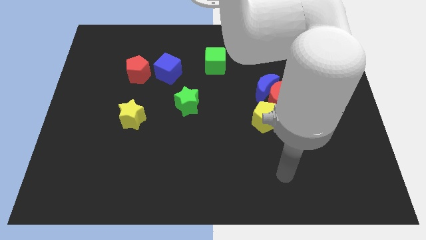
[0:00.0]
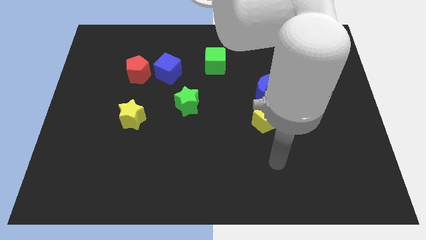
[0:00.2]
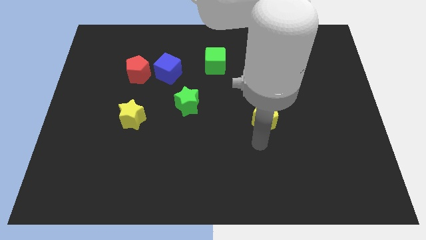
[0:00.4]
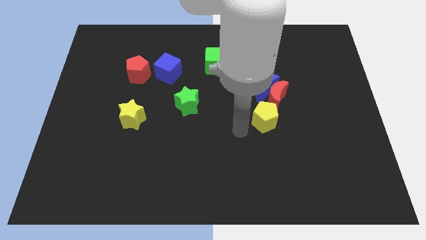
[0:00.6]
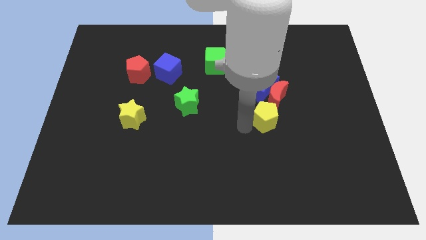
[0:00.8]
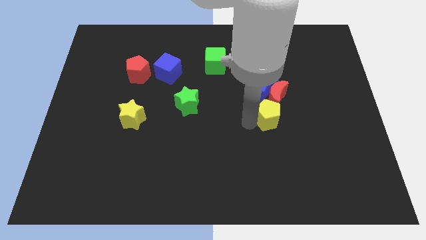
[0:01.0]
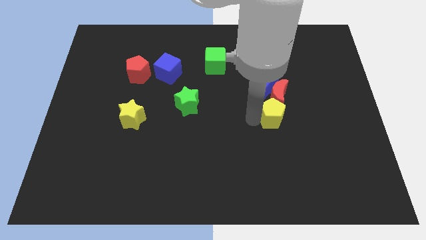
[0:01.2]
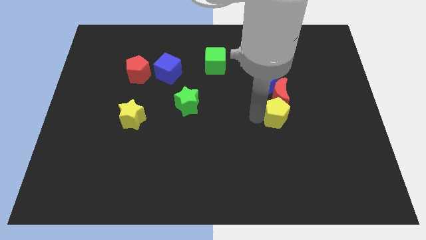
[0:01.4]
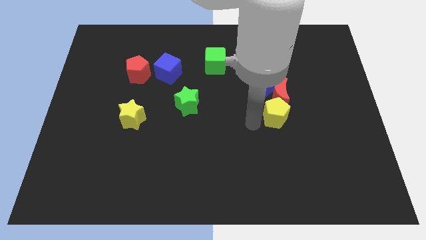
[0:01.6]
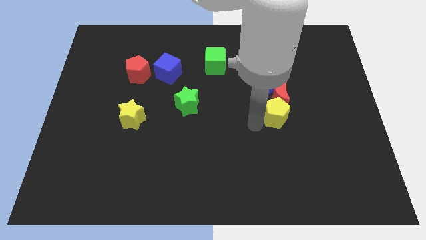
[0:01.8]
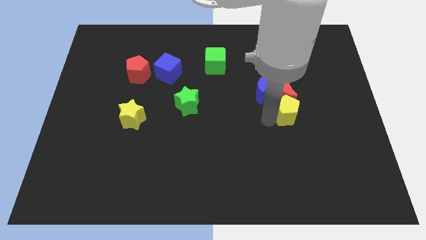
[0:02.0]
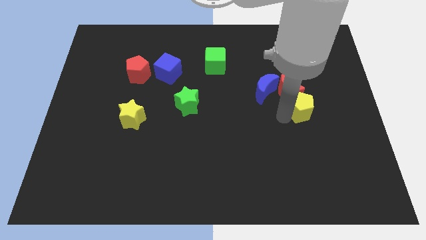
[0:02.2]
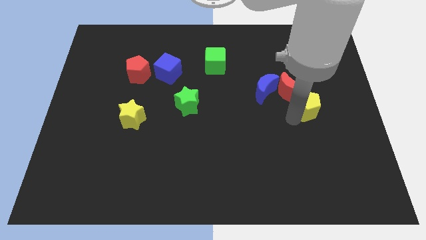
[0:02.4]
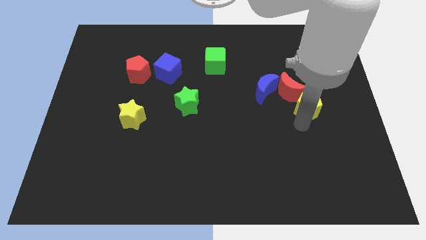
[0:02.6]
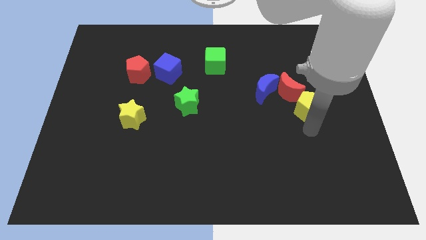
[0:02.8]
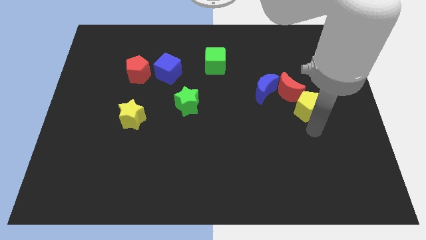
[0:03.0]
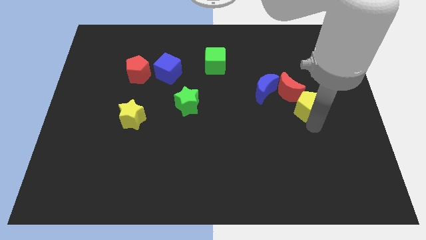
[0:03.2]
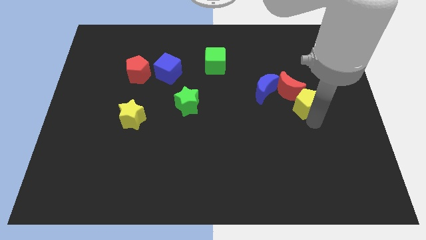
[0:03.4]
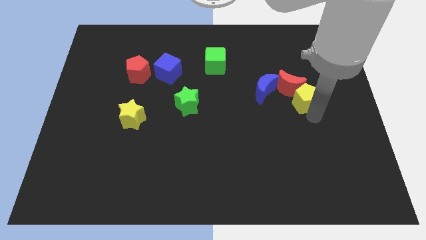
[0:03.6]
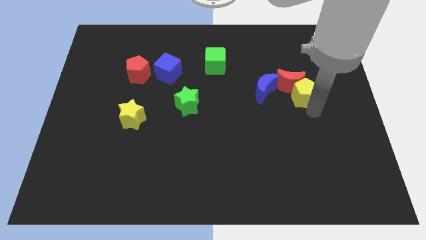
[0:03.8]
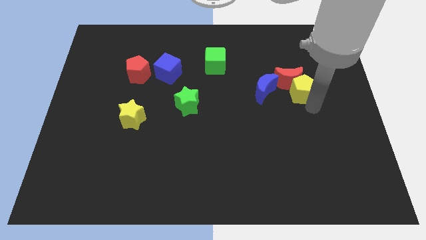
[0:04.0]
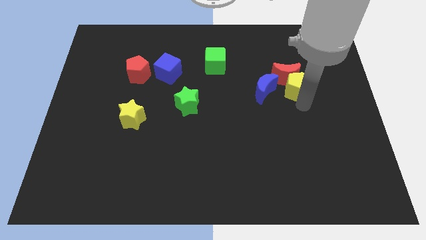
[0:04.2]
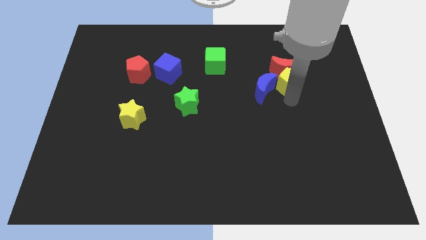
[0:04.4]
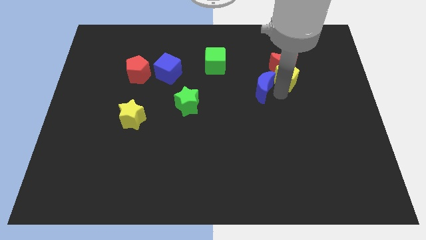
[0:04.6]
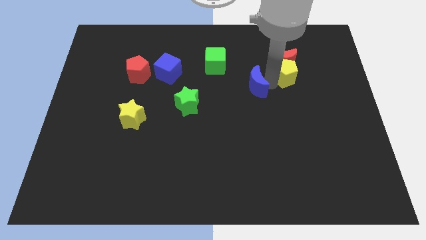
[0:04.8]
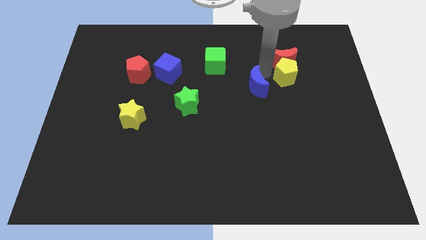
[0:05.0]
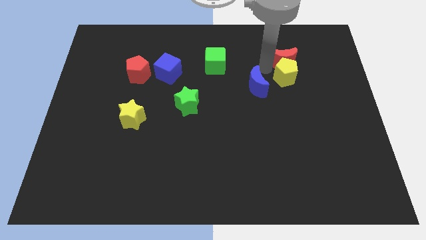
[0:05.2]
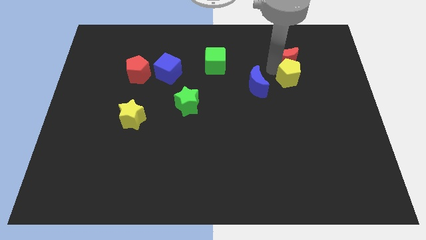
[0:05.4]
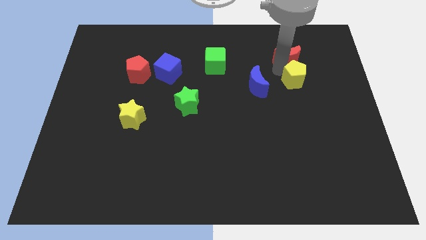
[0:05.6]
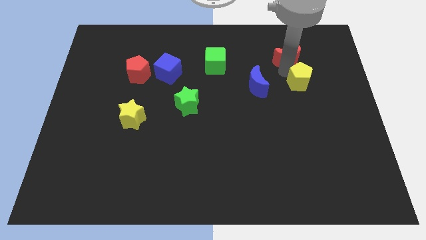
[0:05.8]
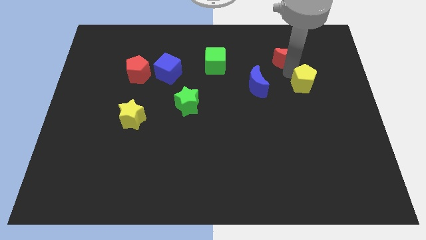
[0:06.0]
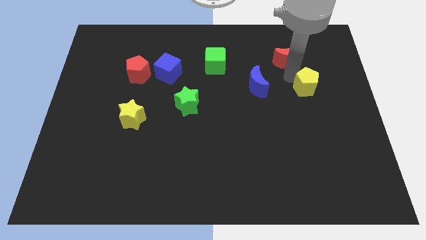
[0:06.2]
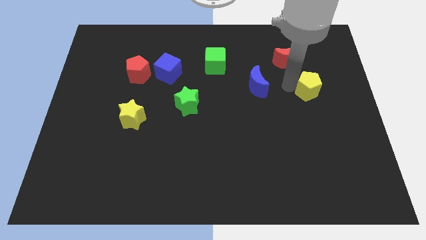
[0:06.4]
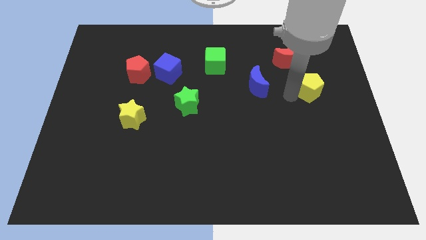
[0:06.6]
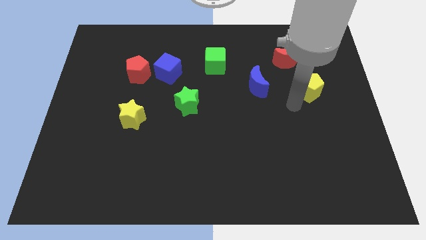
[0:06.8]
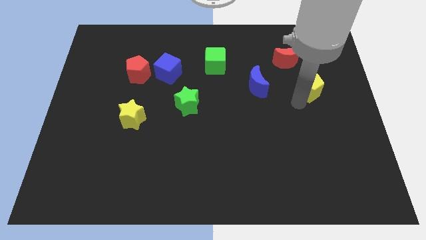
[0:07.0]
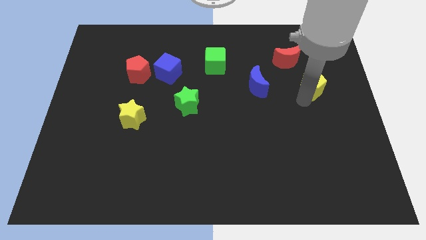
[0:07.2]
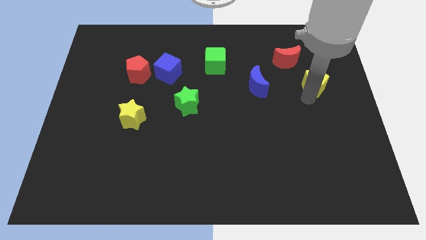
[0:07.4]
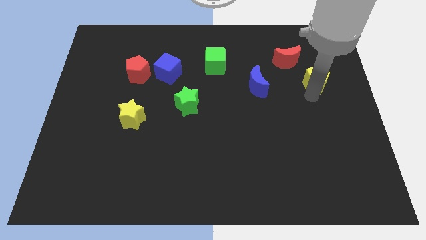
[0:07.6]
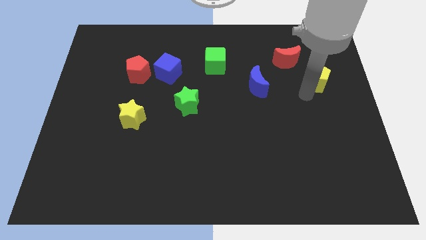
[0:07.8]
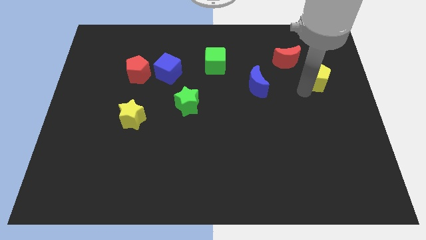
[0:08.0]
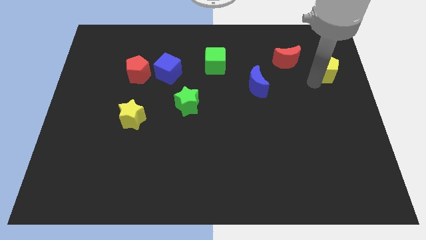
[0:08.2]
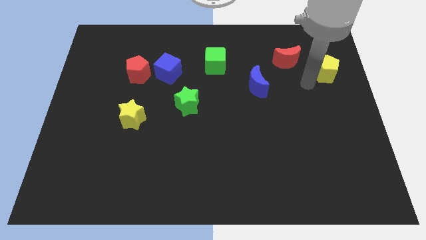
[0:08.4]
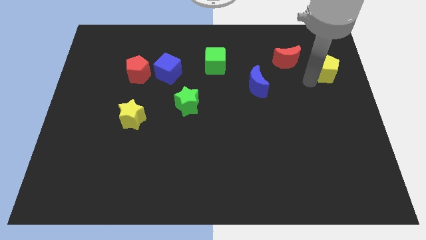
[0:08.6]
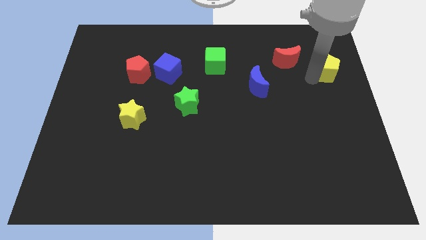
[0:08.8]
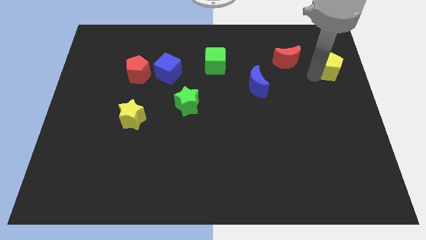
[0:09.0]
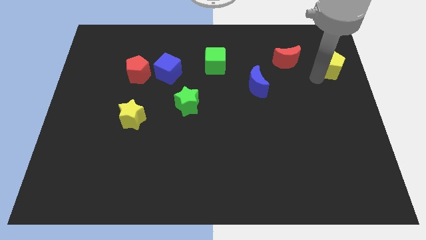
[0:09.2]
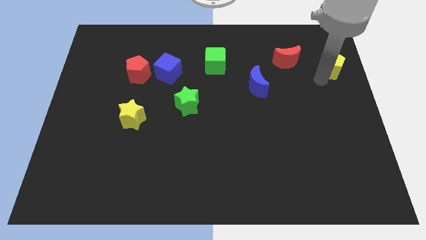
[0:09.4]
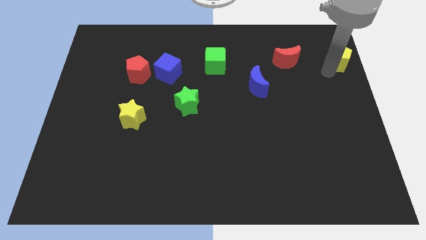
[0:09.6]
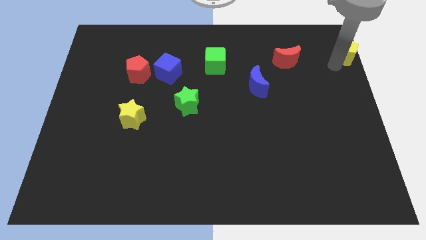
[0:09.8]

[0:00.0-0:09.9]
put the yellow pentagon to the upper right corner

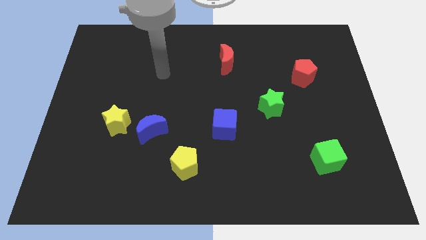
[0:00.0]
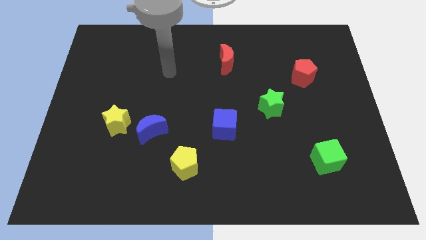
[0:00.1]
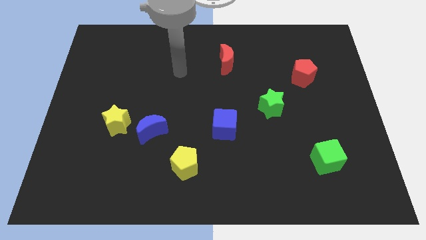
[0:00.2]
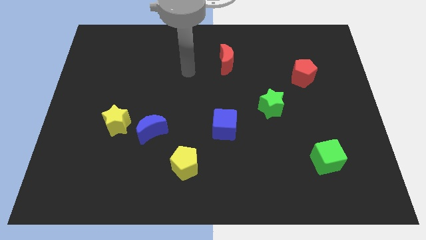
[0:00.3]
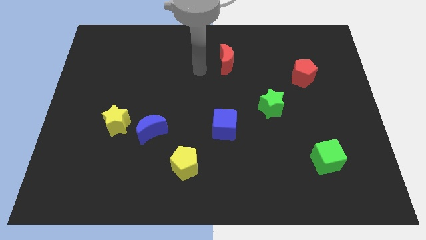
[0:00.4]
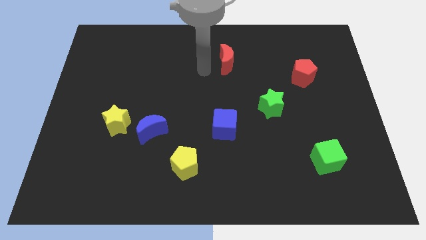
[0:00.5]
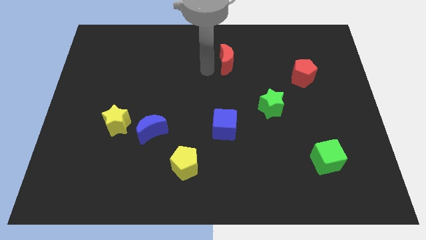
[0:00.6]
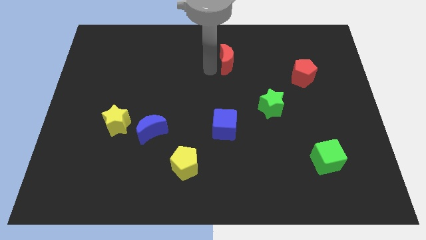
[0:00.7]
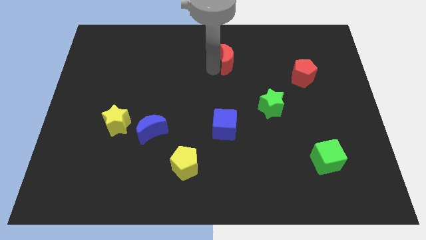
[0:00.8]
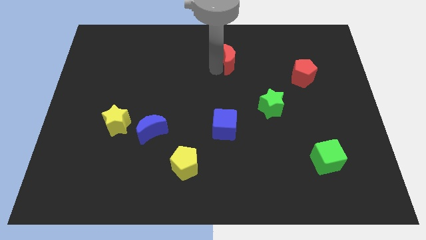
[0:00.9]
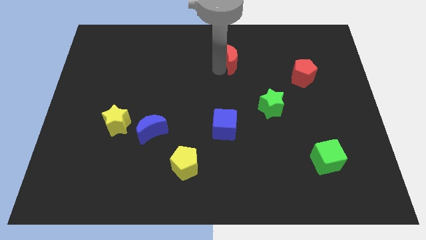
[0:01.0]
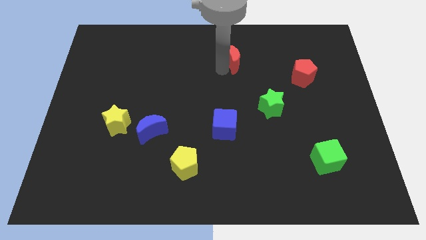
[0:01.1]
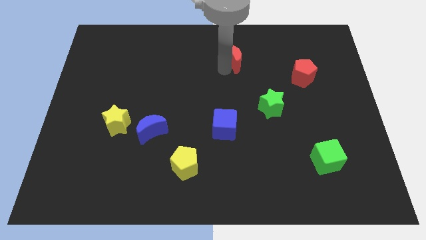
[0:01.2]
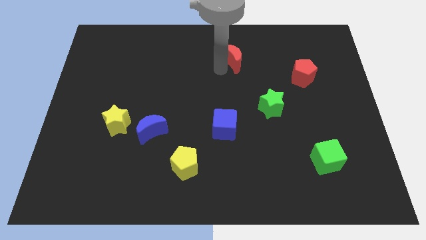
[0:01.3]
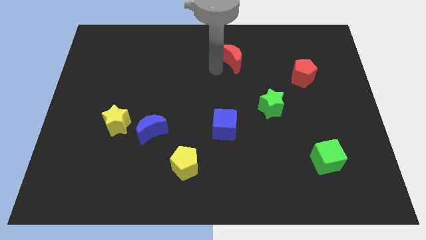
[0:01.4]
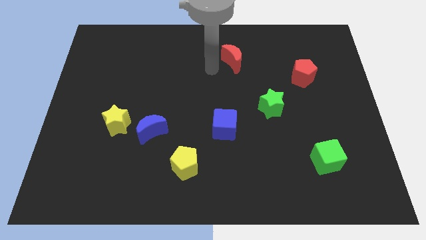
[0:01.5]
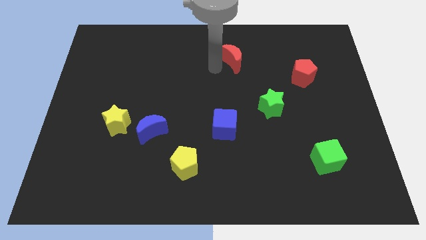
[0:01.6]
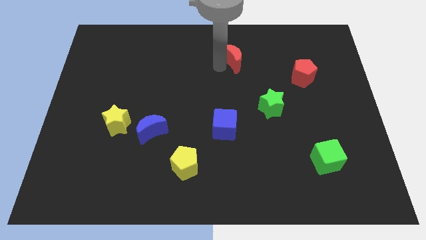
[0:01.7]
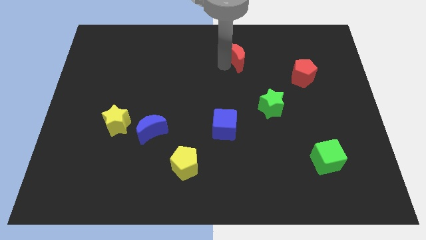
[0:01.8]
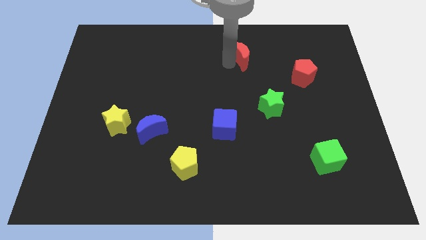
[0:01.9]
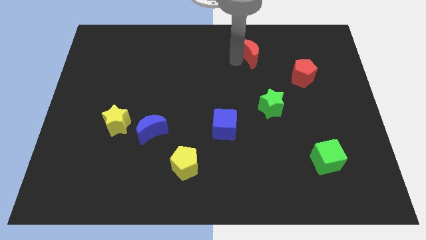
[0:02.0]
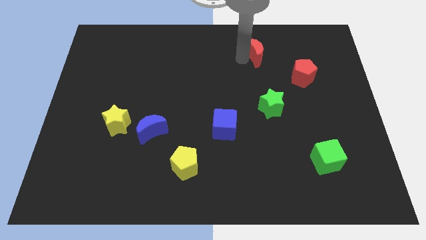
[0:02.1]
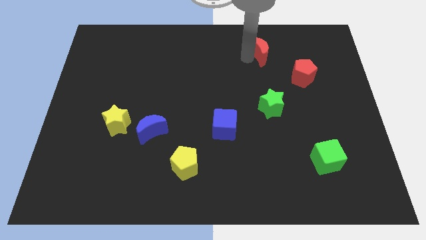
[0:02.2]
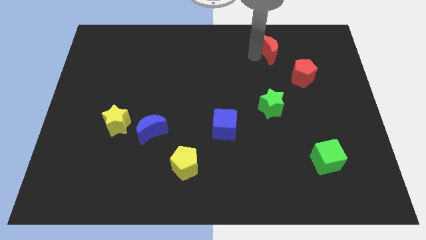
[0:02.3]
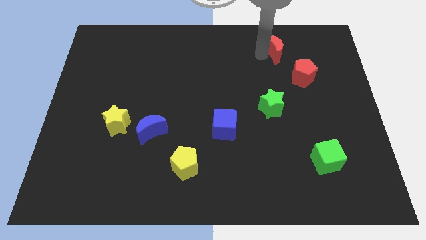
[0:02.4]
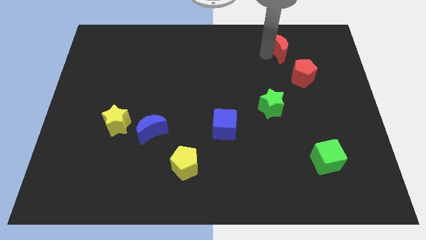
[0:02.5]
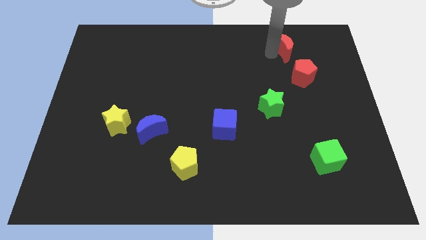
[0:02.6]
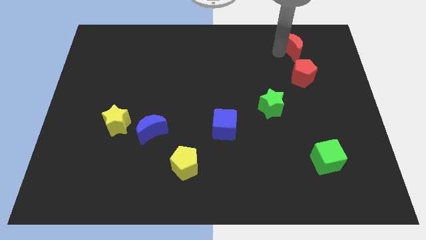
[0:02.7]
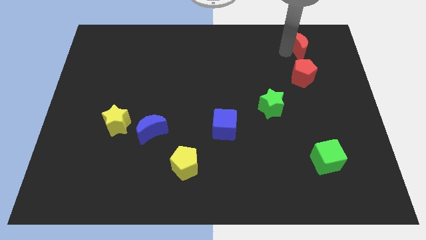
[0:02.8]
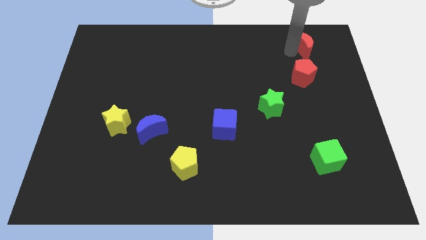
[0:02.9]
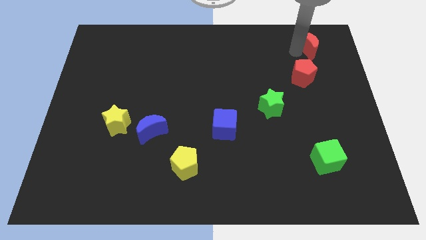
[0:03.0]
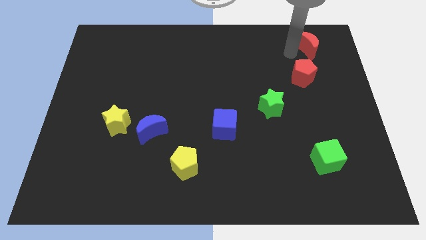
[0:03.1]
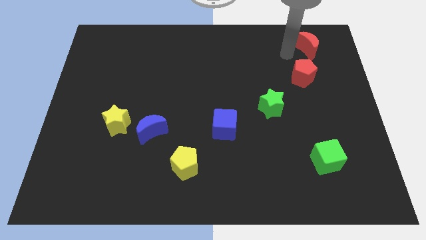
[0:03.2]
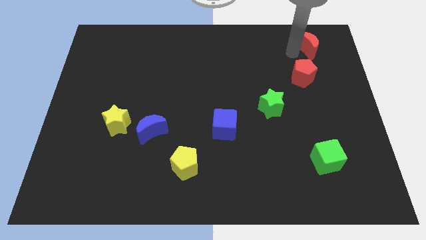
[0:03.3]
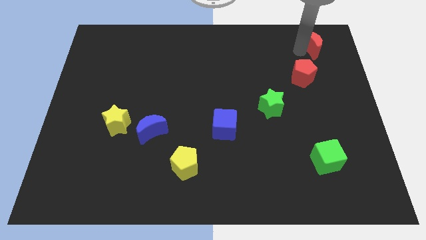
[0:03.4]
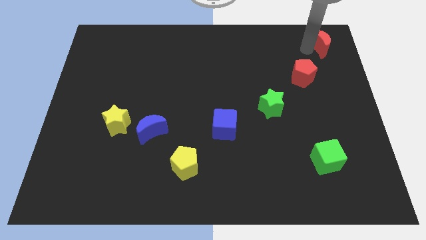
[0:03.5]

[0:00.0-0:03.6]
push the red moon to the upper right corner
